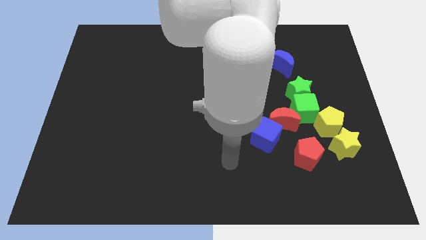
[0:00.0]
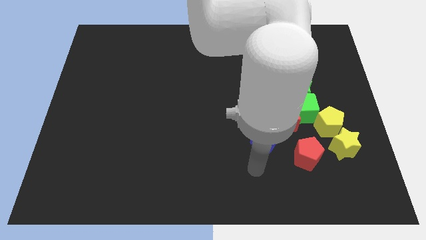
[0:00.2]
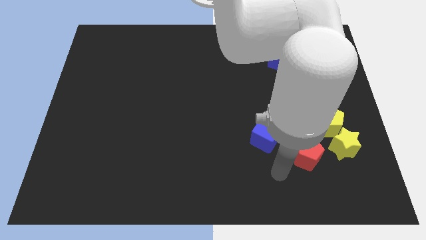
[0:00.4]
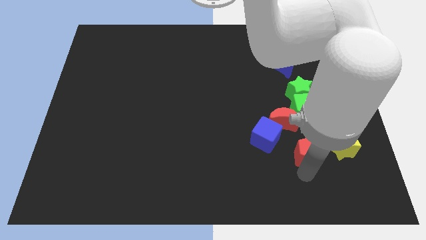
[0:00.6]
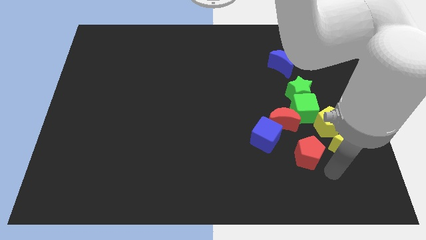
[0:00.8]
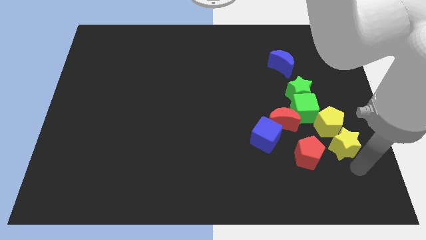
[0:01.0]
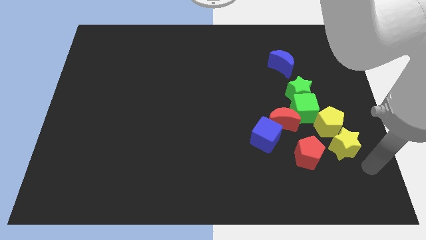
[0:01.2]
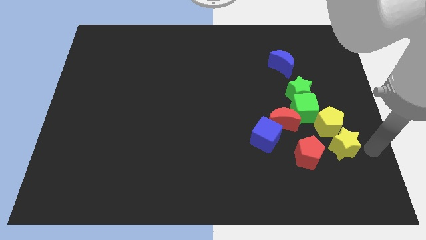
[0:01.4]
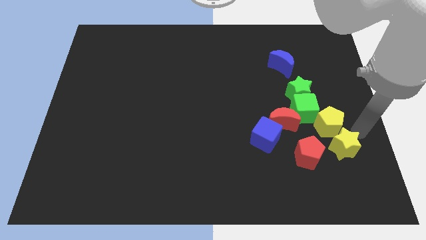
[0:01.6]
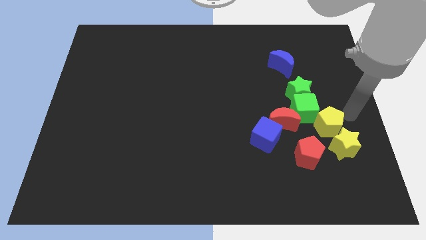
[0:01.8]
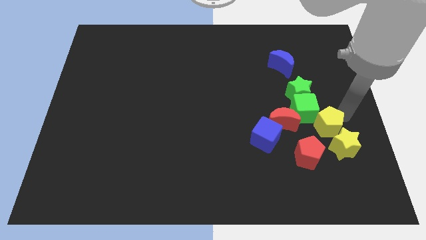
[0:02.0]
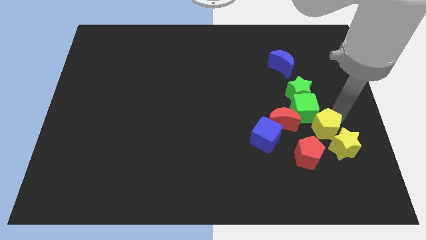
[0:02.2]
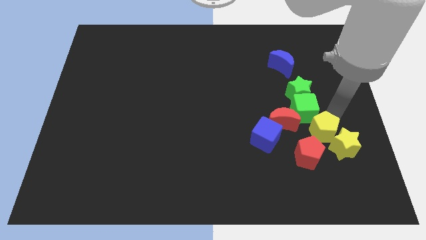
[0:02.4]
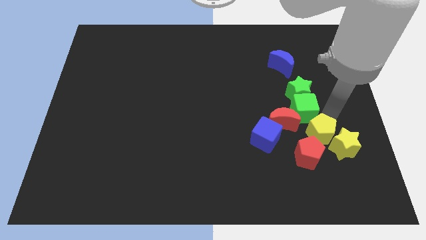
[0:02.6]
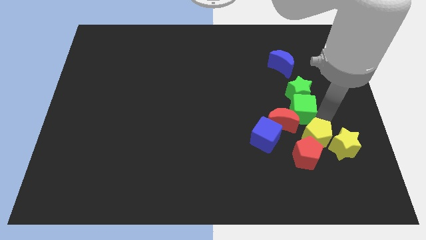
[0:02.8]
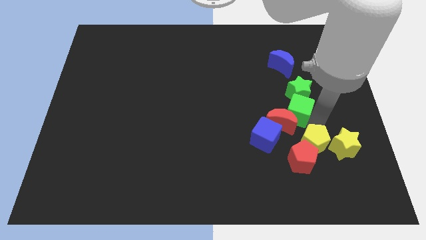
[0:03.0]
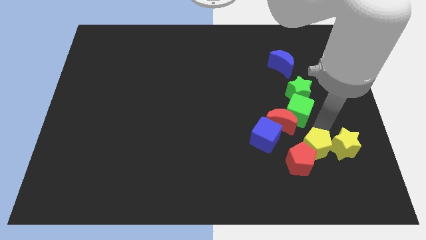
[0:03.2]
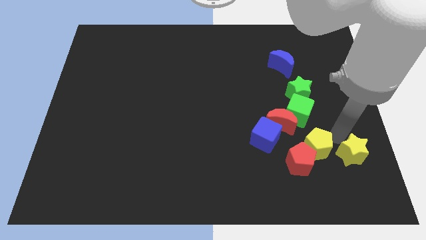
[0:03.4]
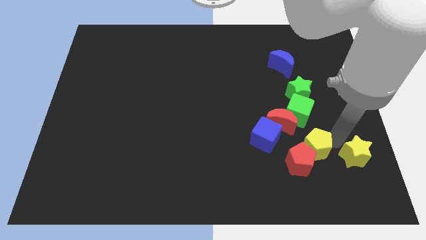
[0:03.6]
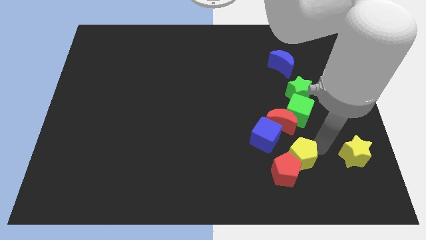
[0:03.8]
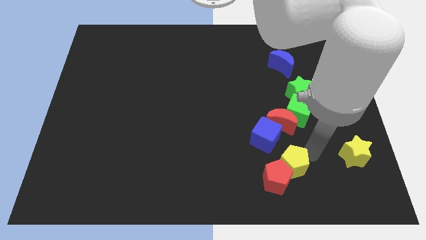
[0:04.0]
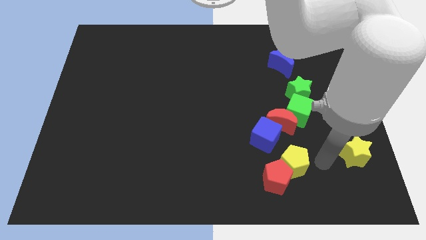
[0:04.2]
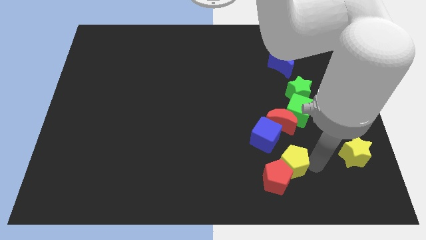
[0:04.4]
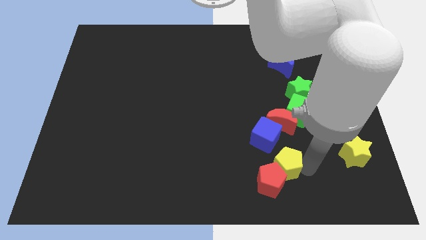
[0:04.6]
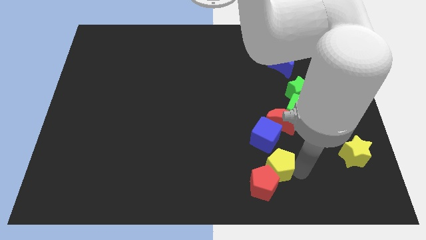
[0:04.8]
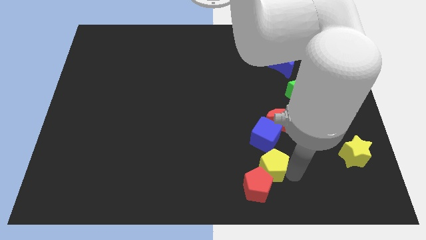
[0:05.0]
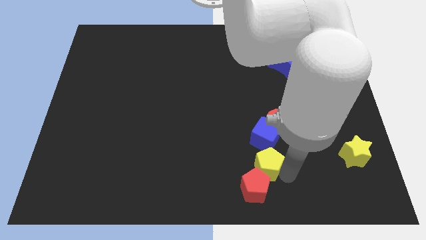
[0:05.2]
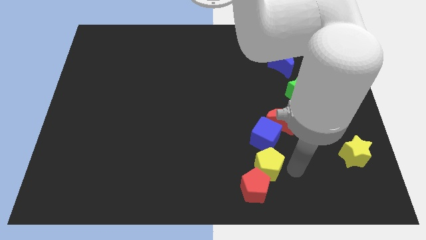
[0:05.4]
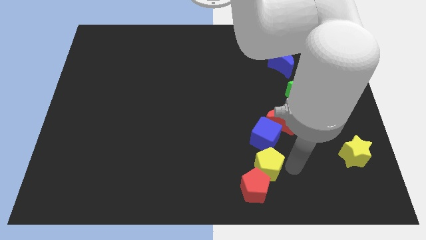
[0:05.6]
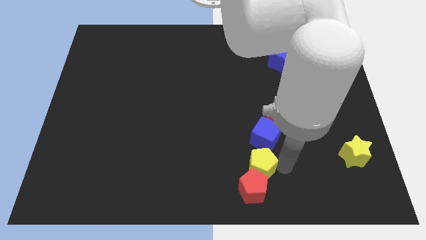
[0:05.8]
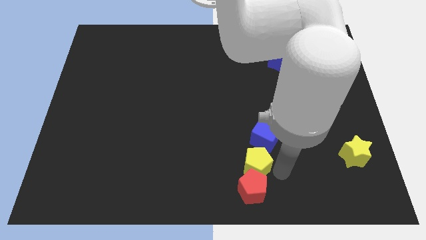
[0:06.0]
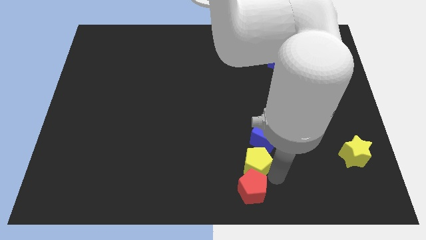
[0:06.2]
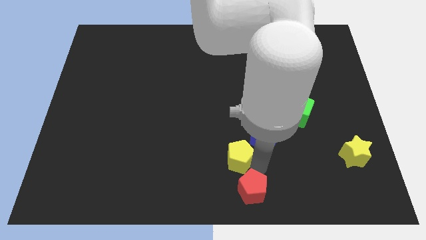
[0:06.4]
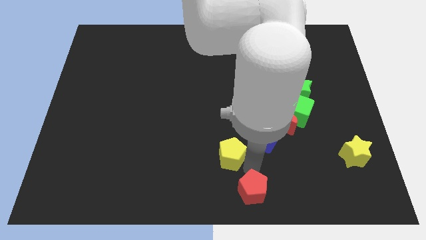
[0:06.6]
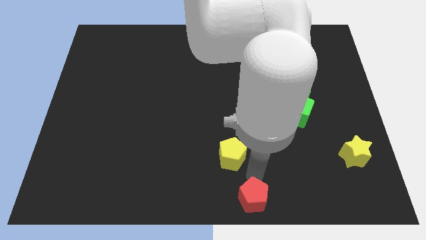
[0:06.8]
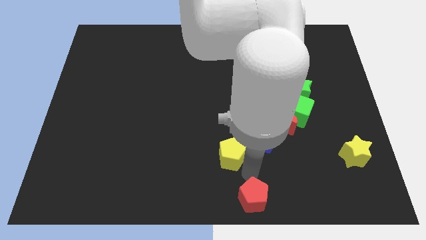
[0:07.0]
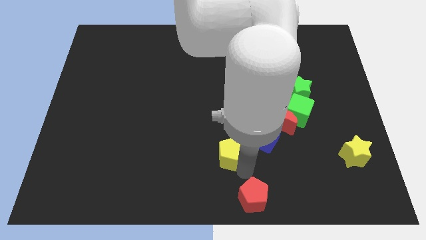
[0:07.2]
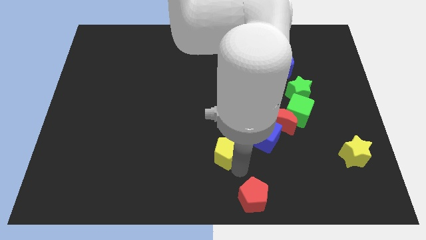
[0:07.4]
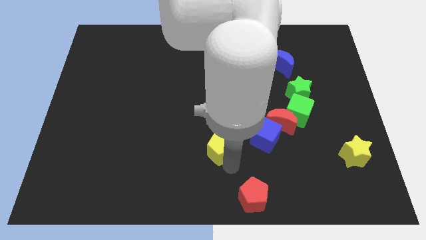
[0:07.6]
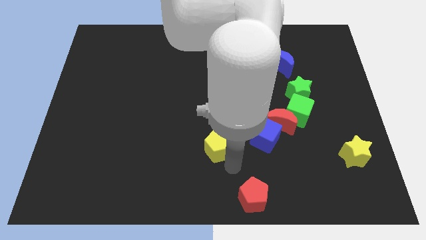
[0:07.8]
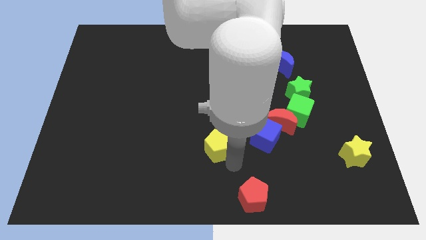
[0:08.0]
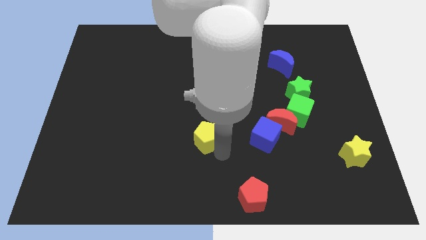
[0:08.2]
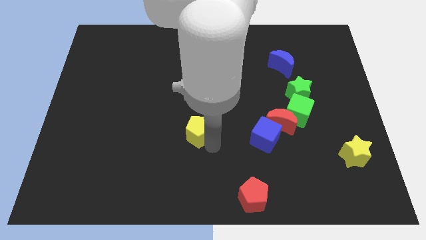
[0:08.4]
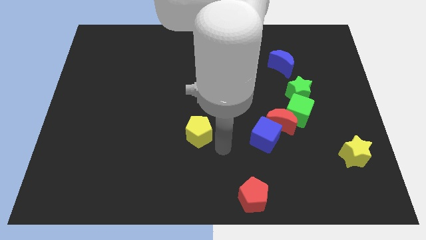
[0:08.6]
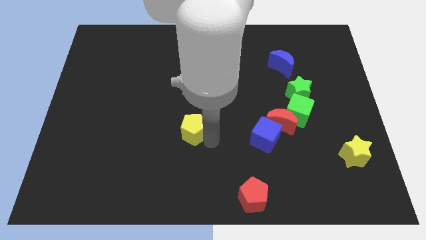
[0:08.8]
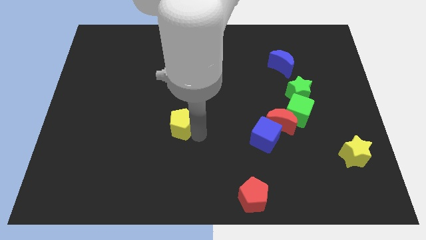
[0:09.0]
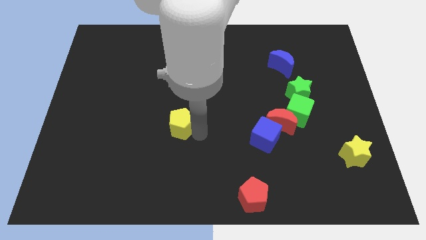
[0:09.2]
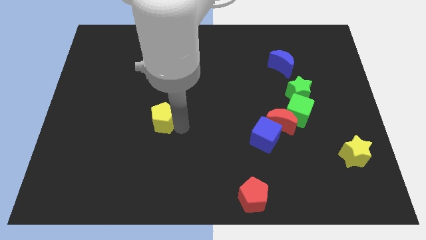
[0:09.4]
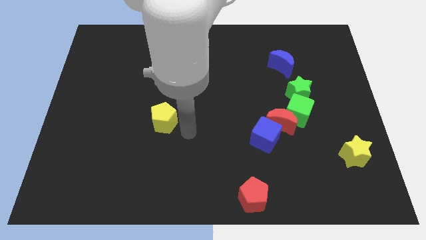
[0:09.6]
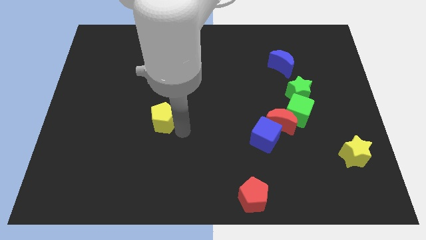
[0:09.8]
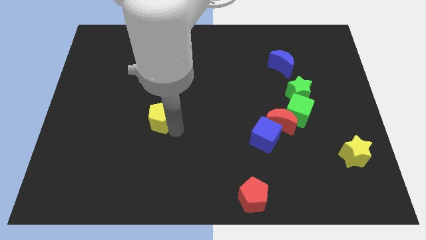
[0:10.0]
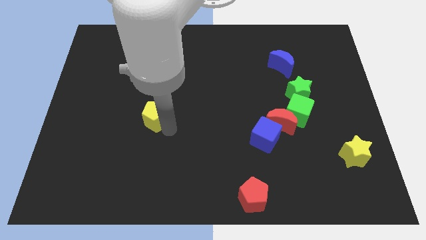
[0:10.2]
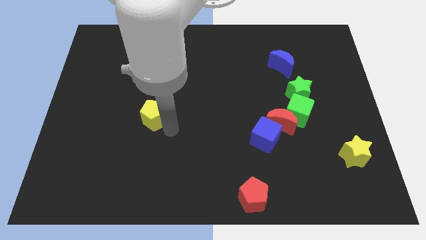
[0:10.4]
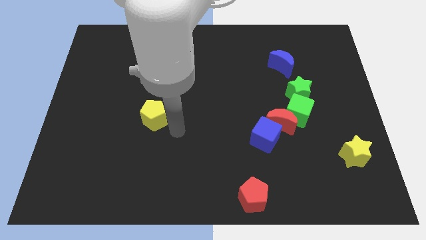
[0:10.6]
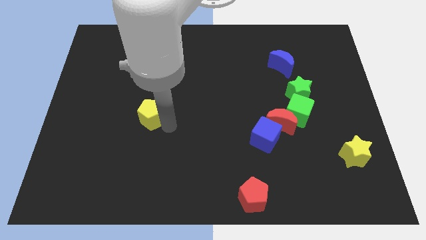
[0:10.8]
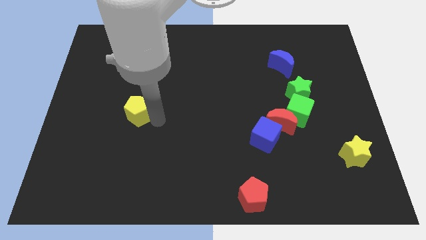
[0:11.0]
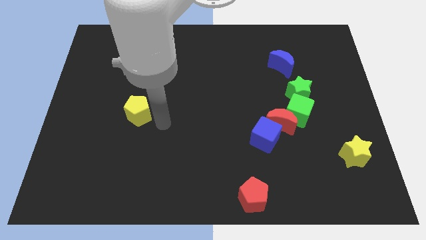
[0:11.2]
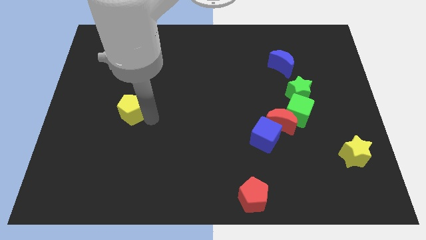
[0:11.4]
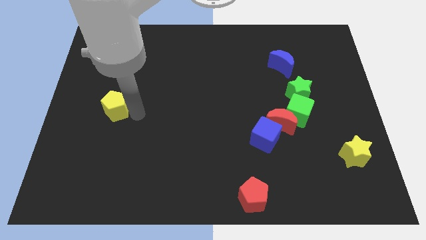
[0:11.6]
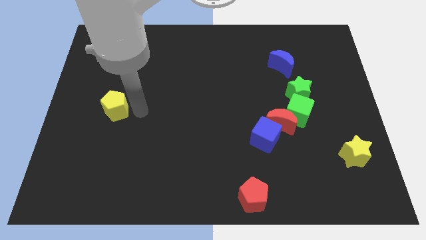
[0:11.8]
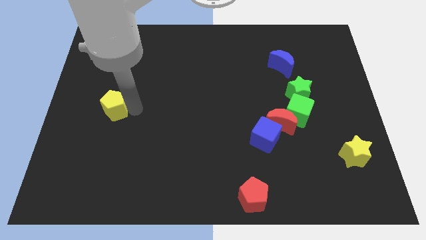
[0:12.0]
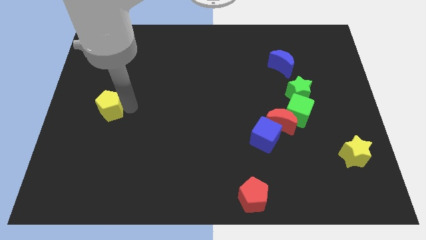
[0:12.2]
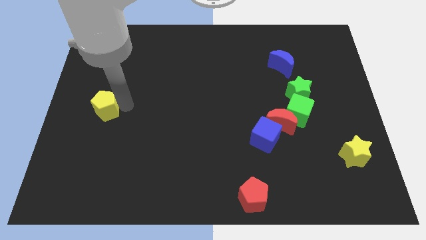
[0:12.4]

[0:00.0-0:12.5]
move the yellow pentagon to the left side
